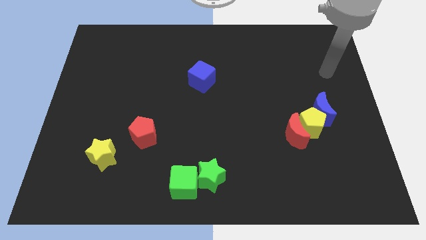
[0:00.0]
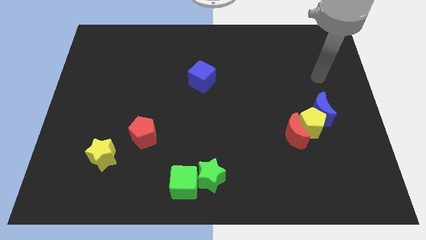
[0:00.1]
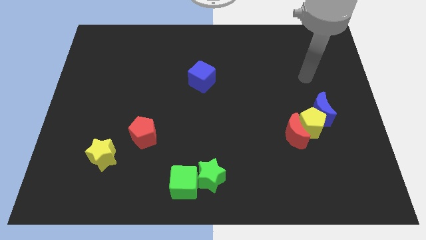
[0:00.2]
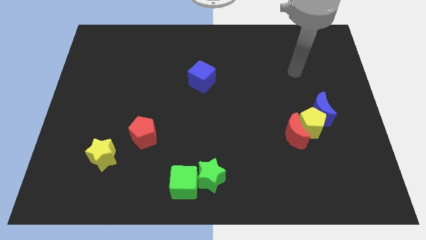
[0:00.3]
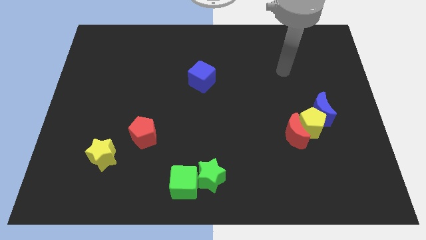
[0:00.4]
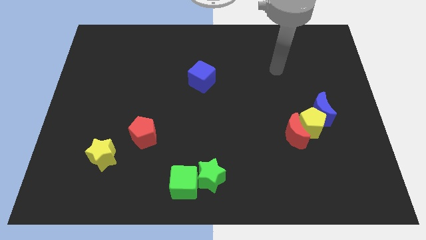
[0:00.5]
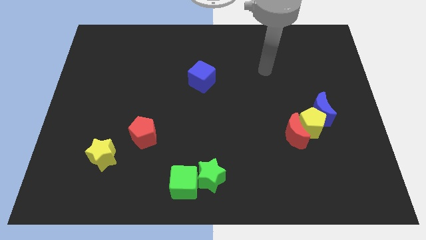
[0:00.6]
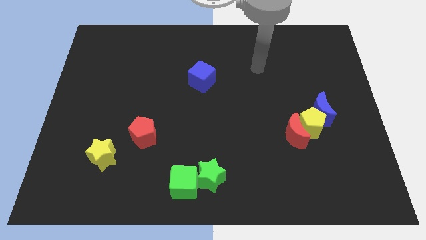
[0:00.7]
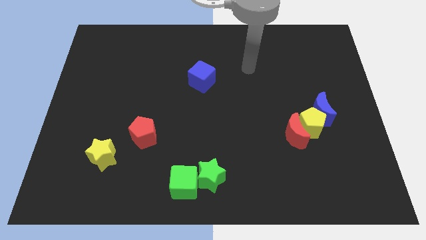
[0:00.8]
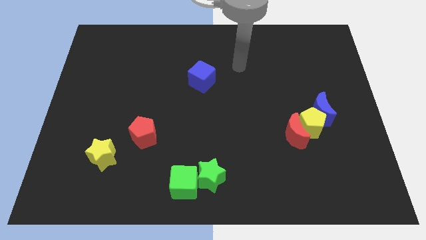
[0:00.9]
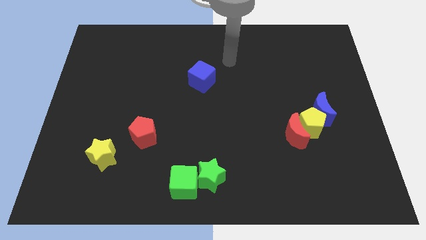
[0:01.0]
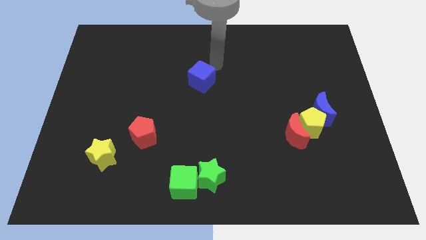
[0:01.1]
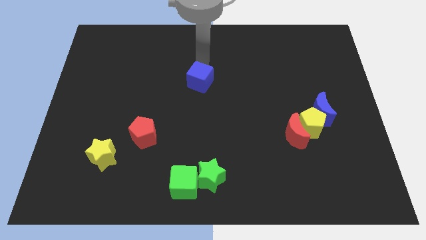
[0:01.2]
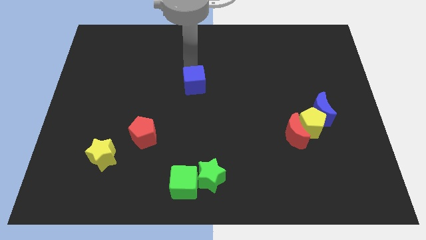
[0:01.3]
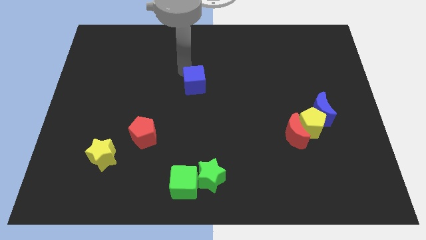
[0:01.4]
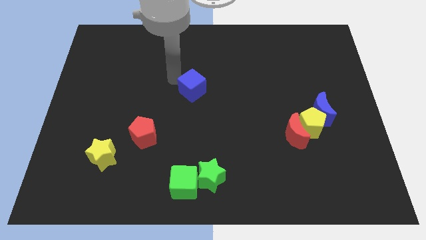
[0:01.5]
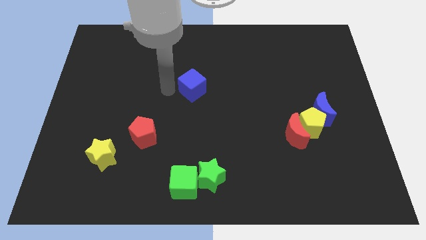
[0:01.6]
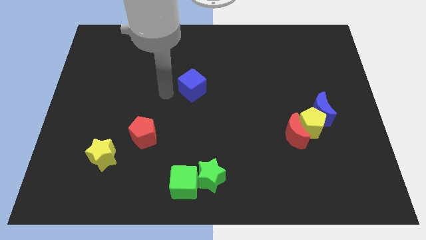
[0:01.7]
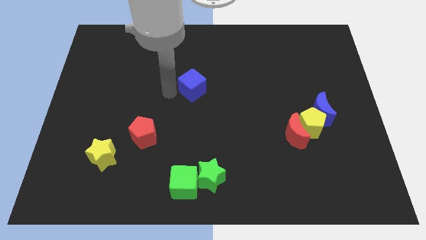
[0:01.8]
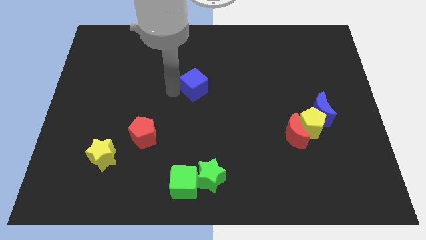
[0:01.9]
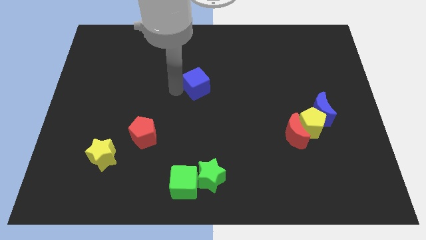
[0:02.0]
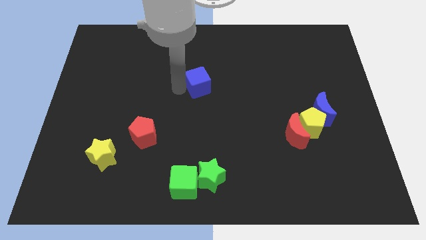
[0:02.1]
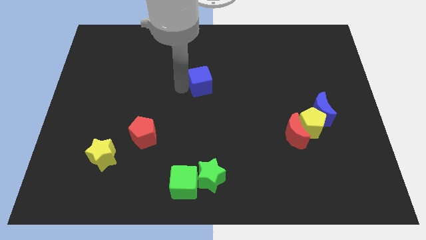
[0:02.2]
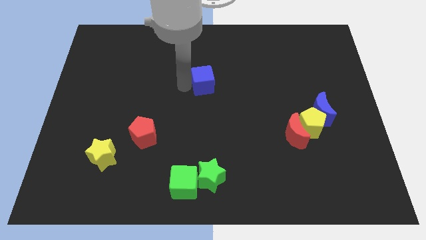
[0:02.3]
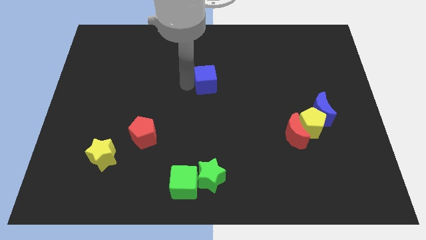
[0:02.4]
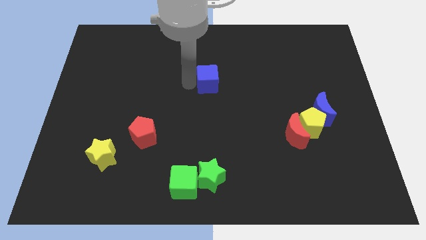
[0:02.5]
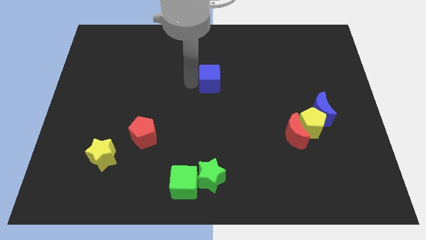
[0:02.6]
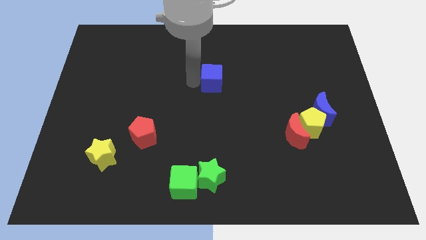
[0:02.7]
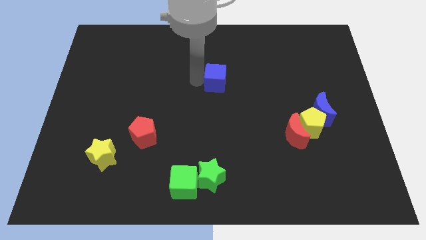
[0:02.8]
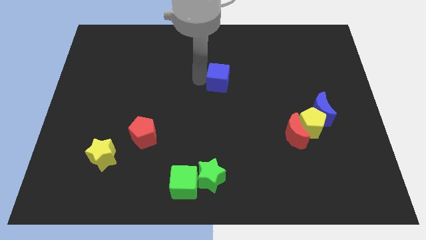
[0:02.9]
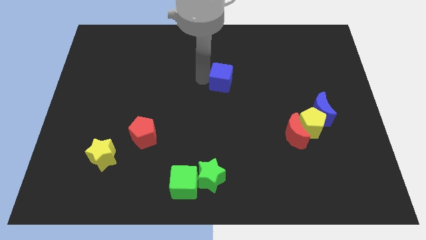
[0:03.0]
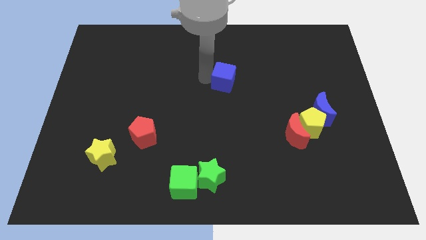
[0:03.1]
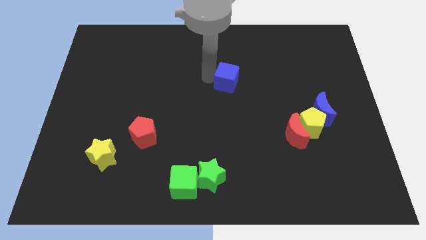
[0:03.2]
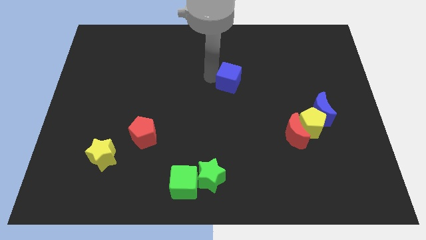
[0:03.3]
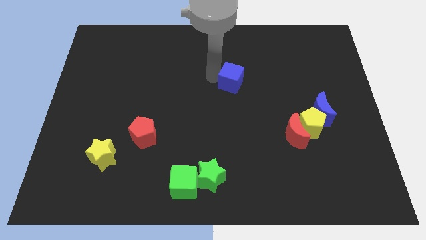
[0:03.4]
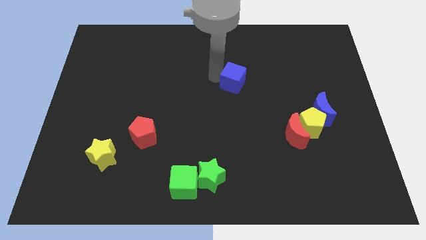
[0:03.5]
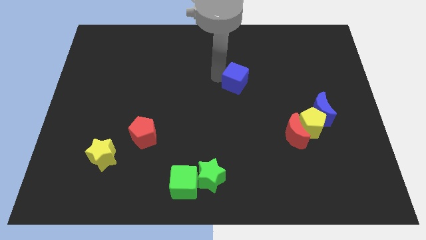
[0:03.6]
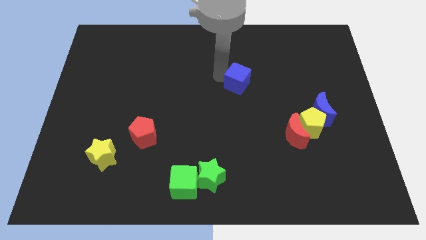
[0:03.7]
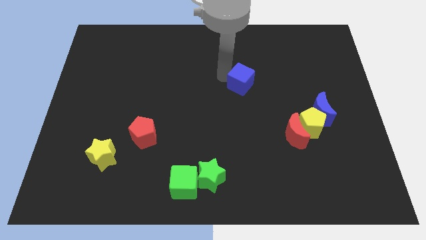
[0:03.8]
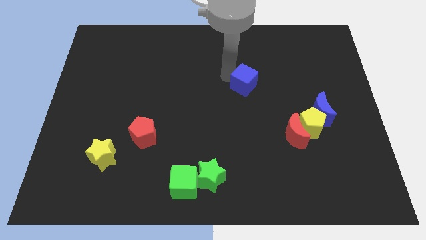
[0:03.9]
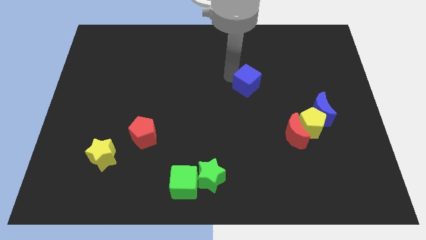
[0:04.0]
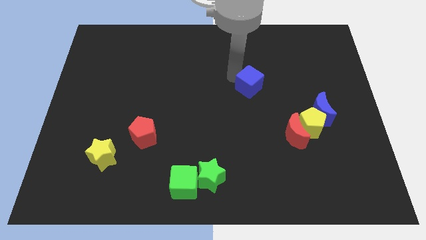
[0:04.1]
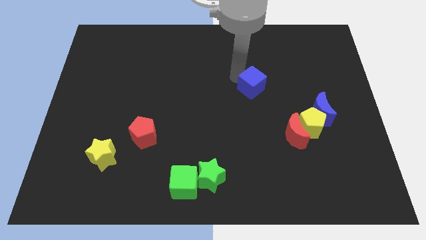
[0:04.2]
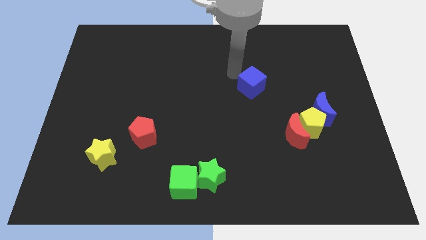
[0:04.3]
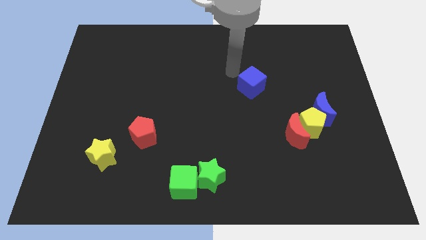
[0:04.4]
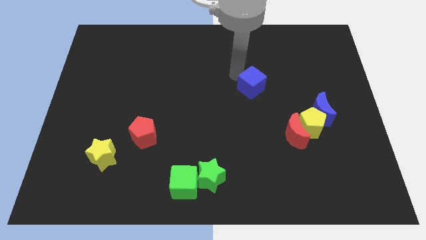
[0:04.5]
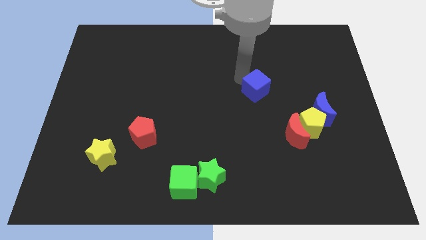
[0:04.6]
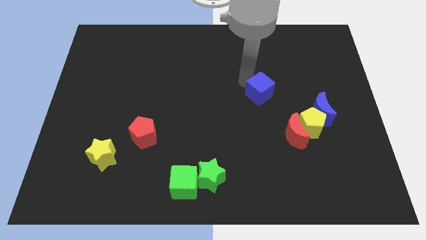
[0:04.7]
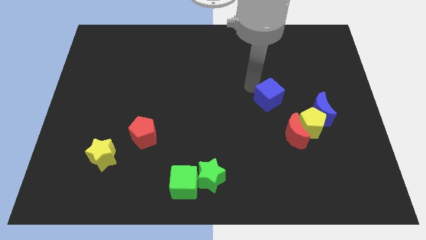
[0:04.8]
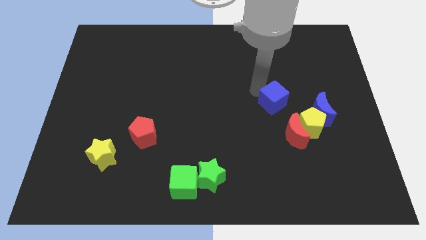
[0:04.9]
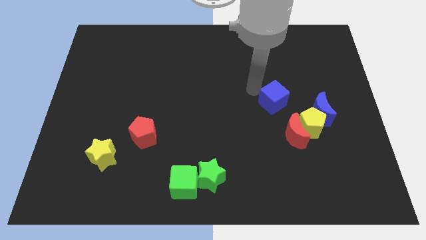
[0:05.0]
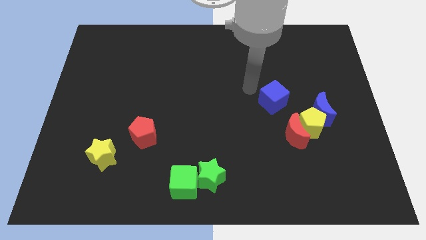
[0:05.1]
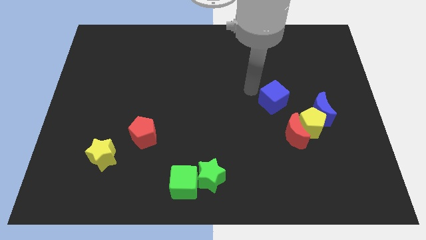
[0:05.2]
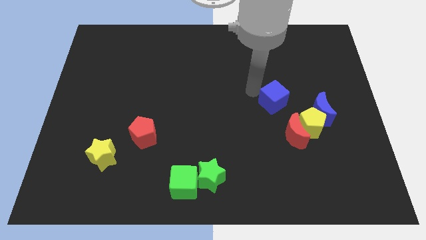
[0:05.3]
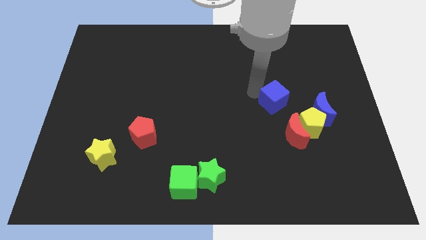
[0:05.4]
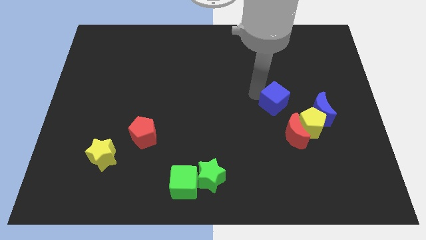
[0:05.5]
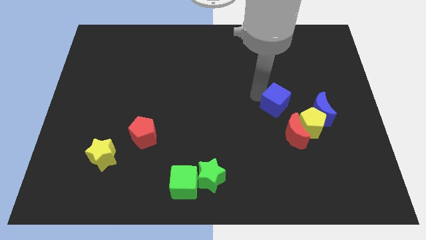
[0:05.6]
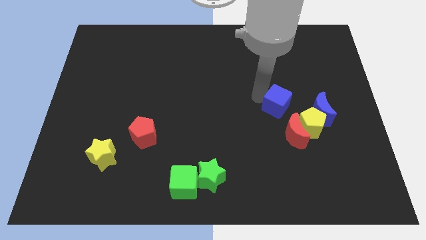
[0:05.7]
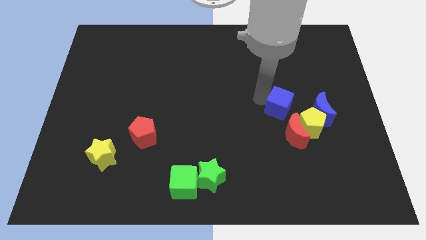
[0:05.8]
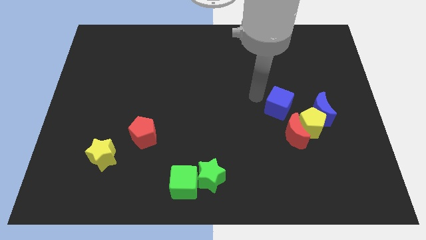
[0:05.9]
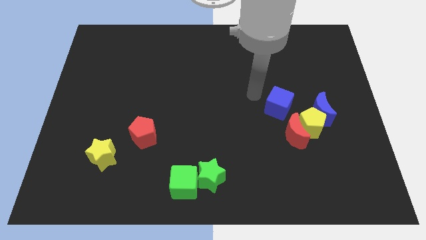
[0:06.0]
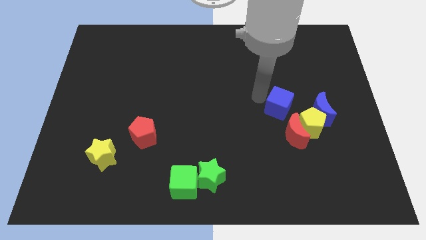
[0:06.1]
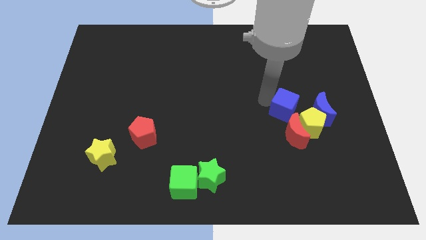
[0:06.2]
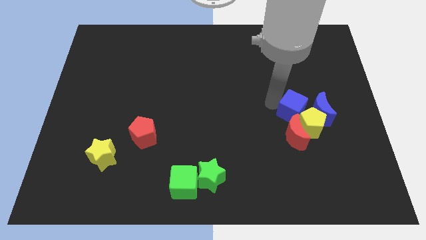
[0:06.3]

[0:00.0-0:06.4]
move the blue cube to the yellow pentagon

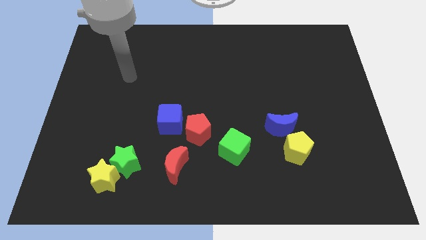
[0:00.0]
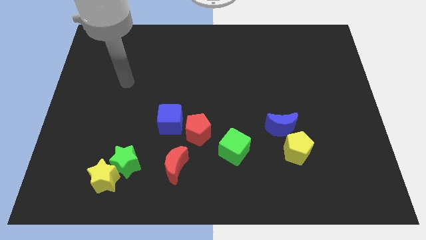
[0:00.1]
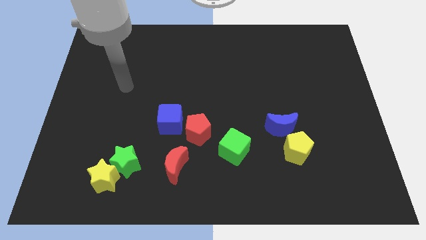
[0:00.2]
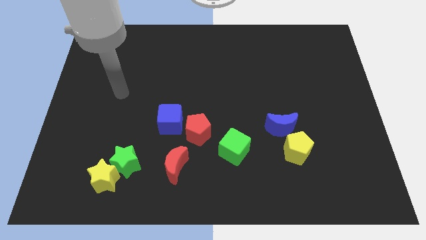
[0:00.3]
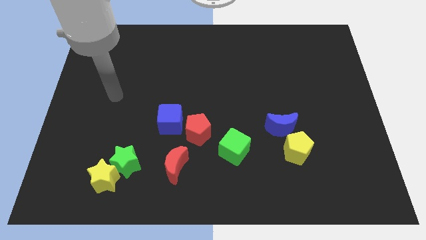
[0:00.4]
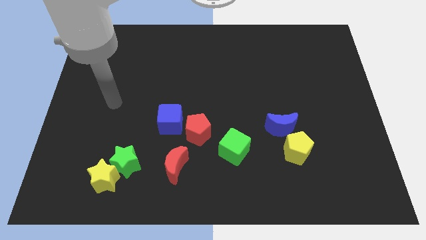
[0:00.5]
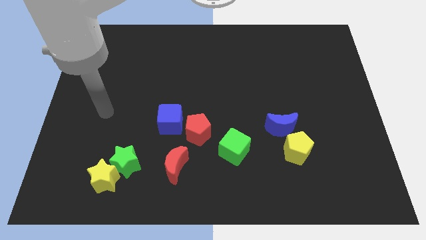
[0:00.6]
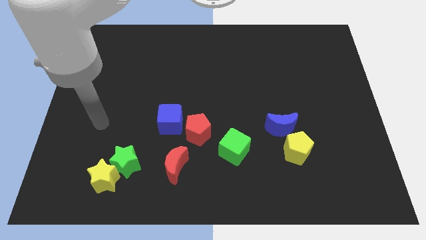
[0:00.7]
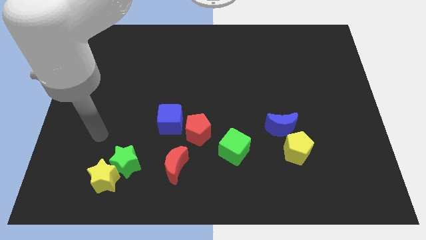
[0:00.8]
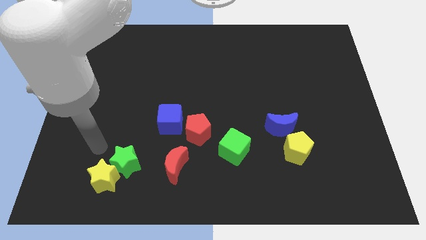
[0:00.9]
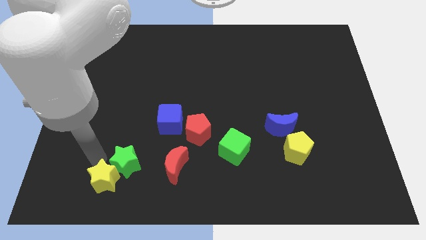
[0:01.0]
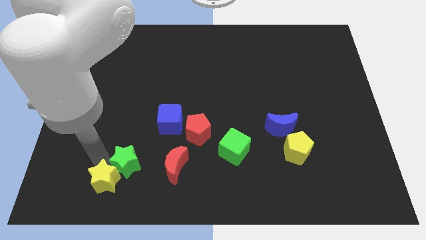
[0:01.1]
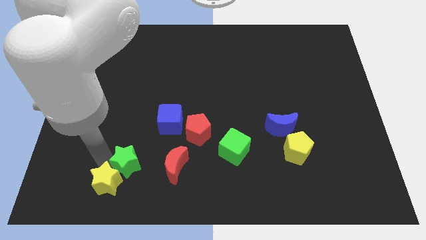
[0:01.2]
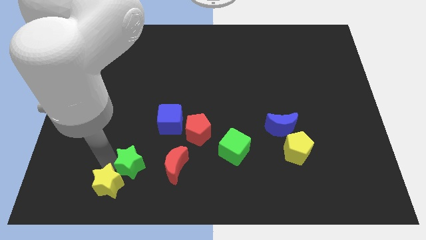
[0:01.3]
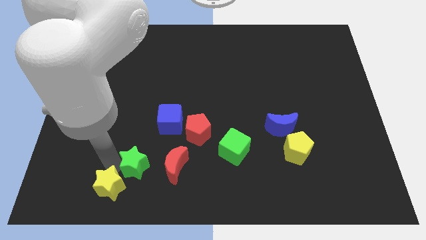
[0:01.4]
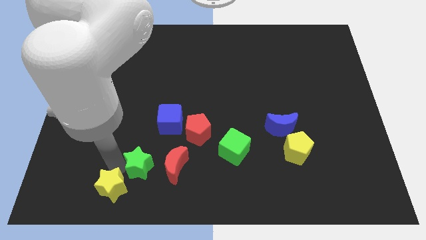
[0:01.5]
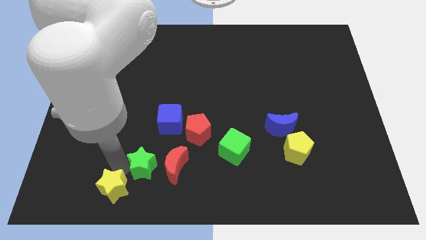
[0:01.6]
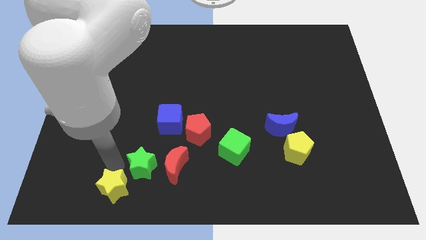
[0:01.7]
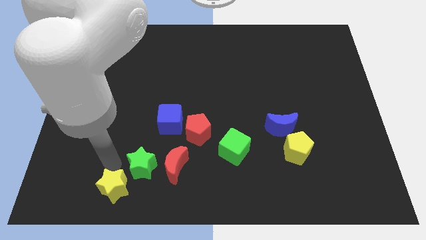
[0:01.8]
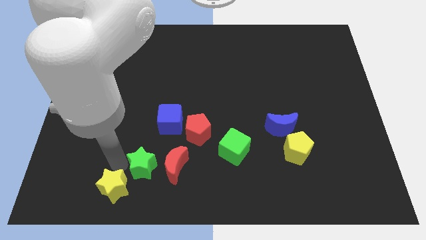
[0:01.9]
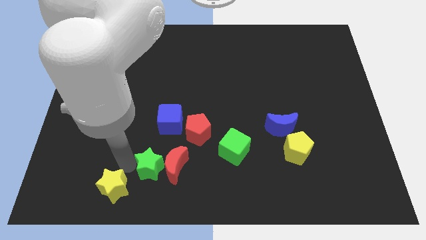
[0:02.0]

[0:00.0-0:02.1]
move the green star next to the red moon
